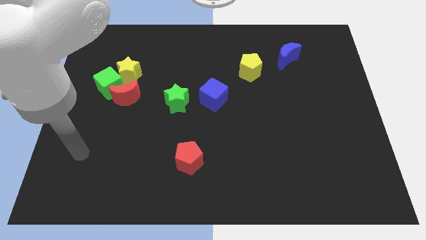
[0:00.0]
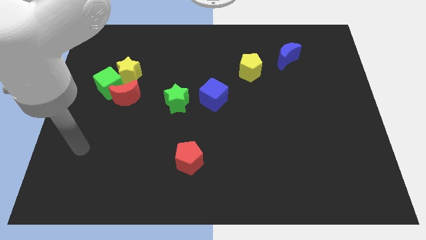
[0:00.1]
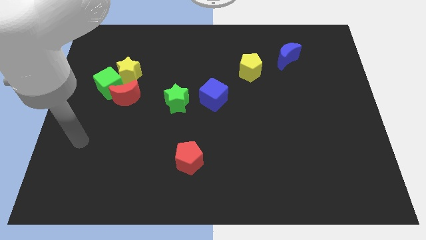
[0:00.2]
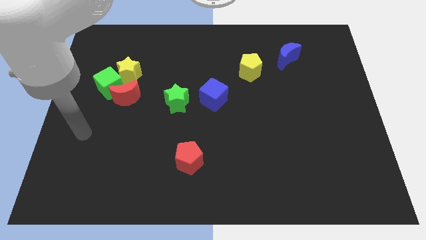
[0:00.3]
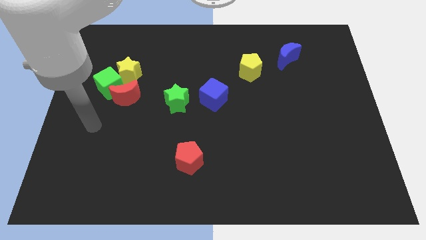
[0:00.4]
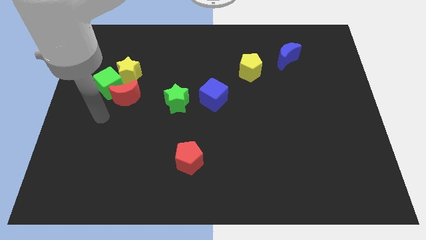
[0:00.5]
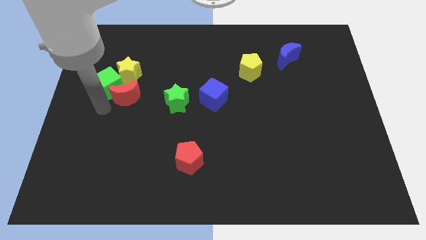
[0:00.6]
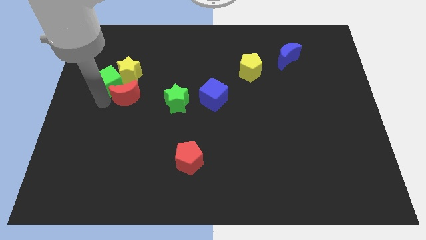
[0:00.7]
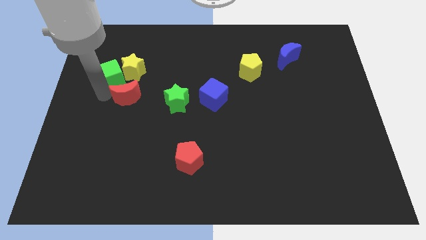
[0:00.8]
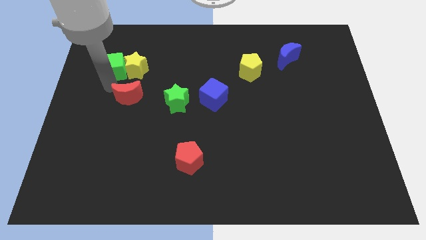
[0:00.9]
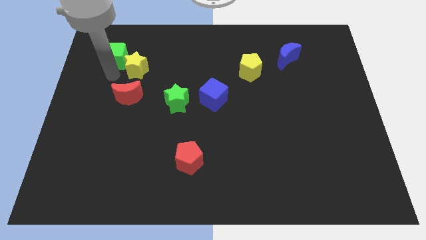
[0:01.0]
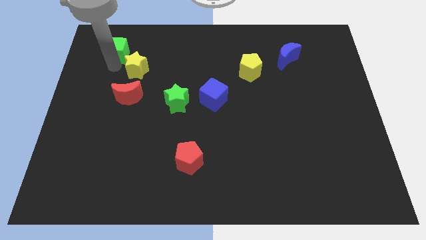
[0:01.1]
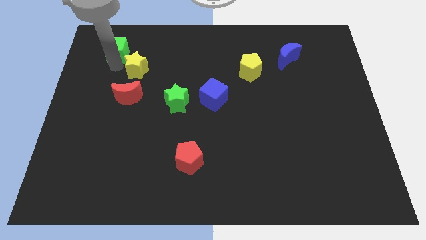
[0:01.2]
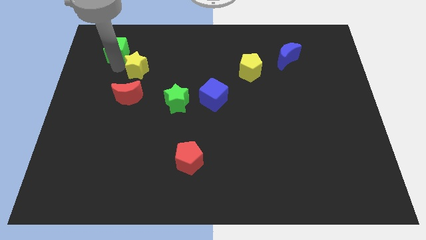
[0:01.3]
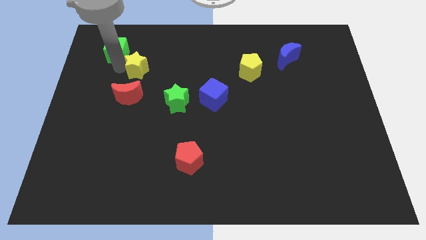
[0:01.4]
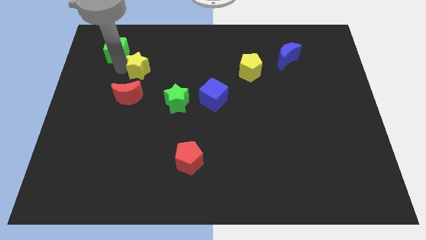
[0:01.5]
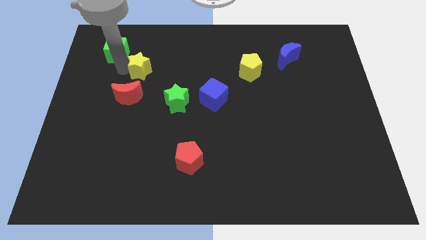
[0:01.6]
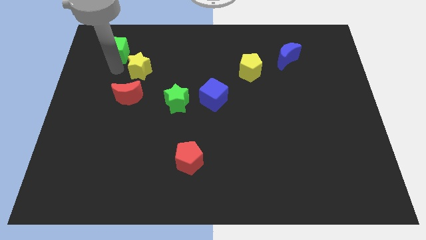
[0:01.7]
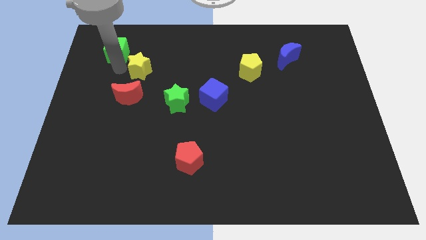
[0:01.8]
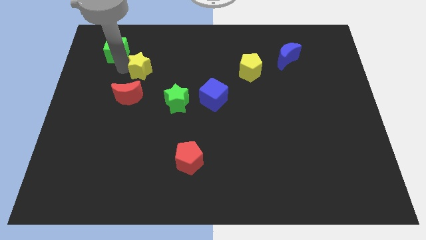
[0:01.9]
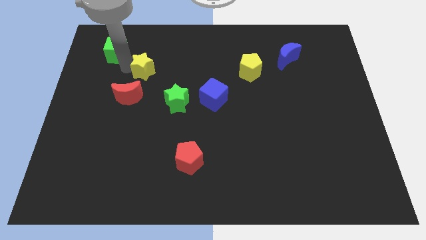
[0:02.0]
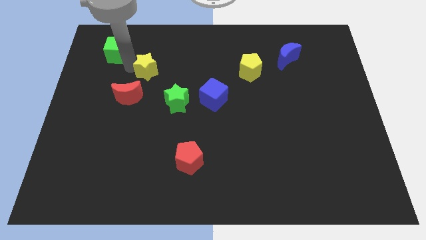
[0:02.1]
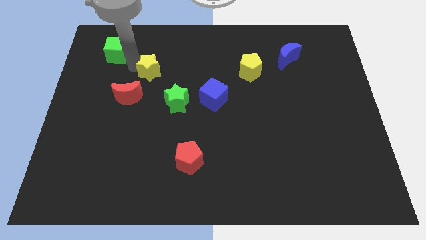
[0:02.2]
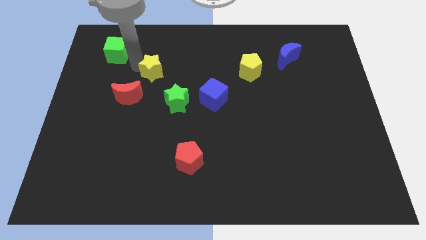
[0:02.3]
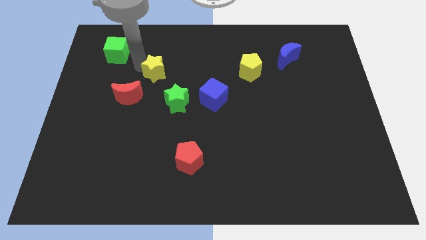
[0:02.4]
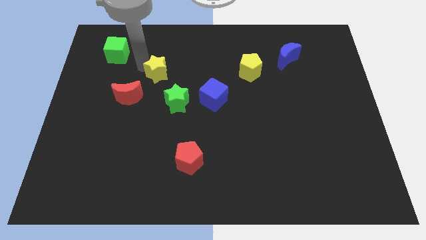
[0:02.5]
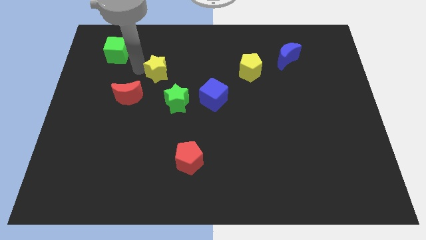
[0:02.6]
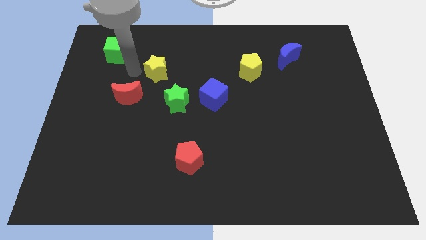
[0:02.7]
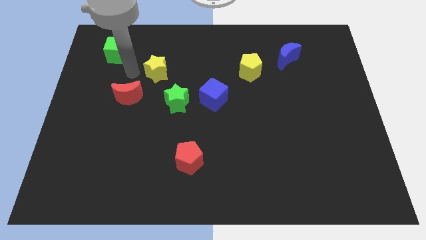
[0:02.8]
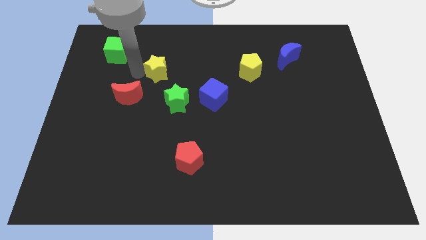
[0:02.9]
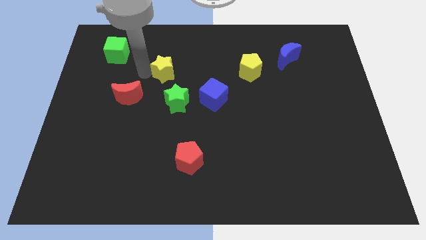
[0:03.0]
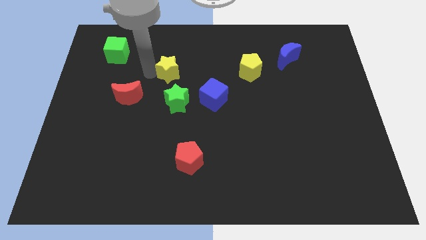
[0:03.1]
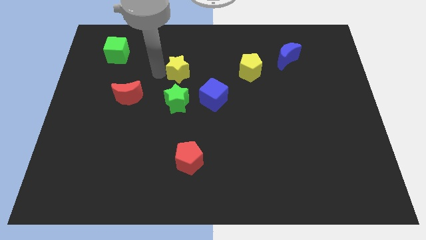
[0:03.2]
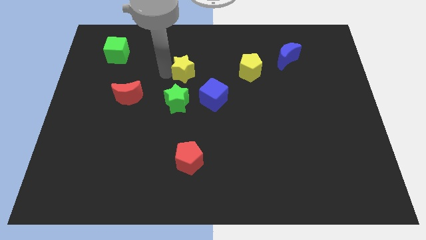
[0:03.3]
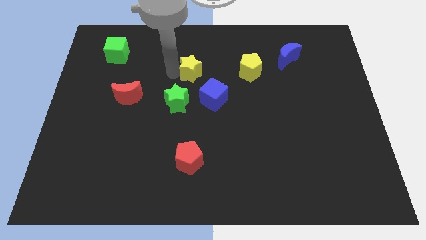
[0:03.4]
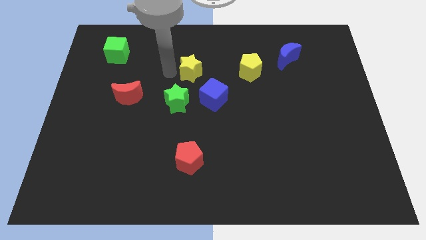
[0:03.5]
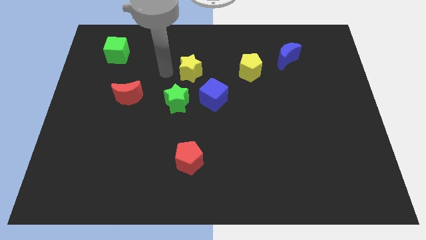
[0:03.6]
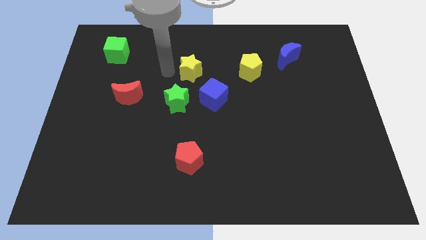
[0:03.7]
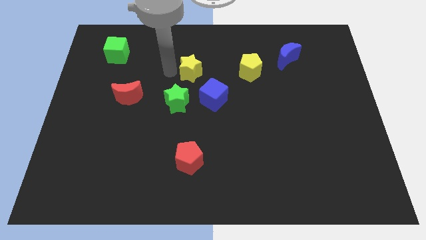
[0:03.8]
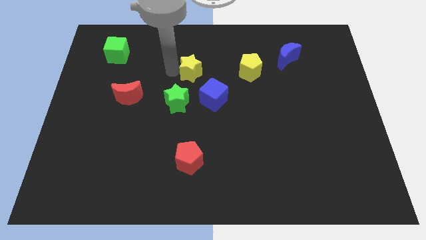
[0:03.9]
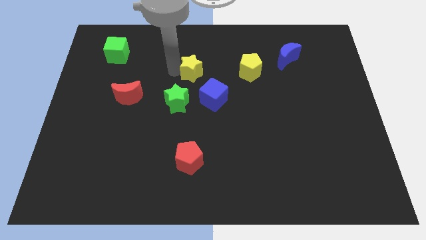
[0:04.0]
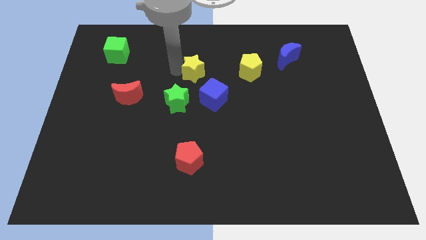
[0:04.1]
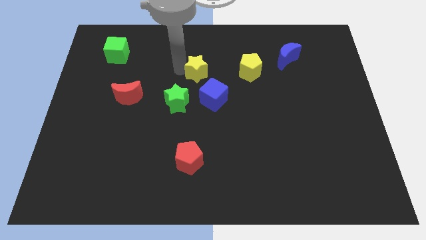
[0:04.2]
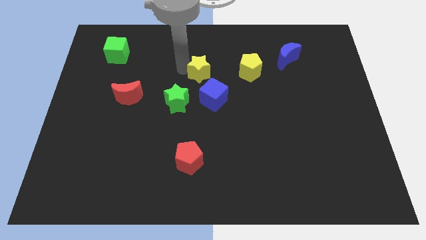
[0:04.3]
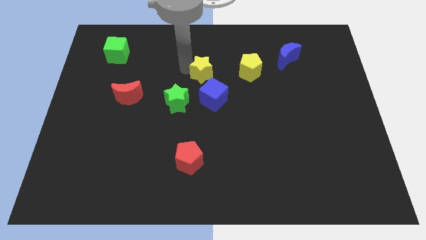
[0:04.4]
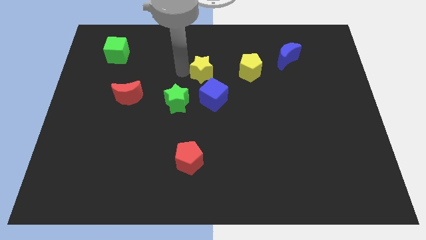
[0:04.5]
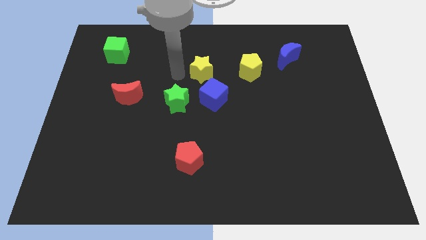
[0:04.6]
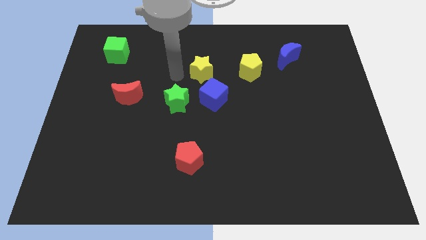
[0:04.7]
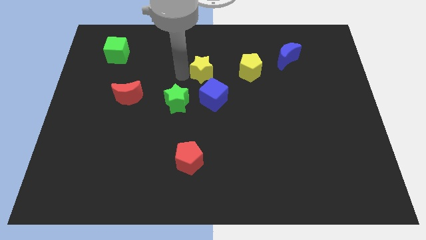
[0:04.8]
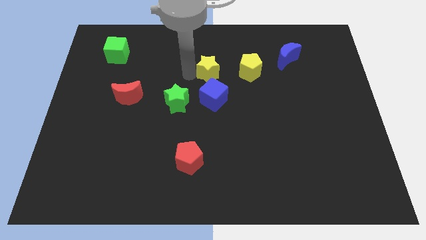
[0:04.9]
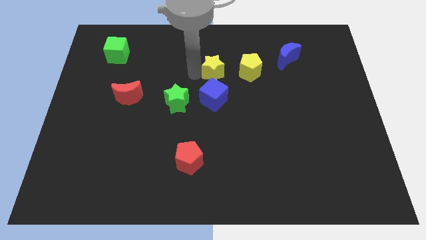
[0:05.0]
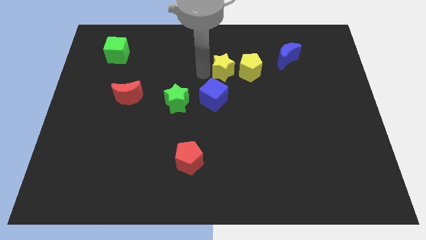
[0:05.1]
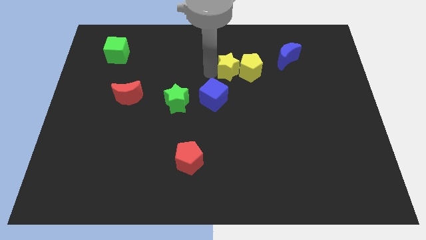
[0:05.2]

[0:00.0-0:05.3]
put the yellow star close to the yellow pentagon

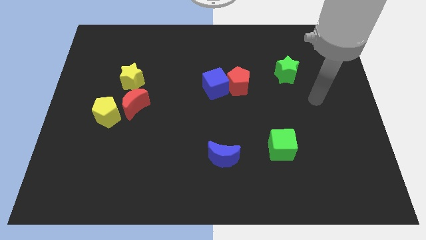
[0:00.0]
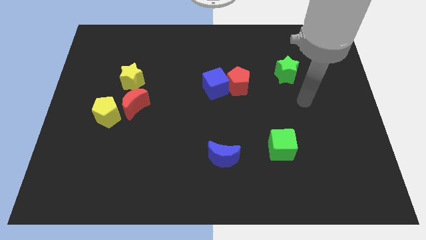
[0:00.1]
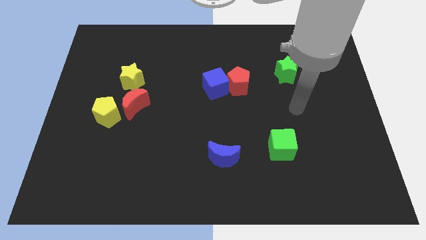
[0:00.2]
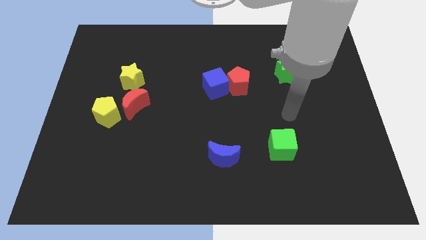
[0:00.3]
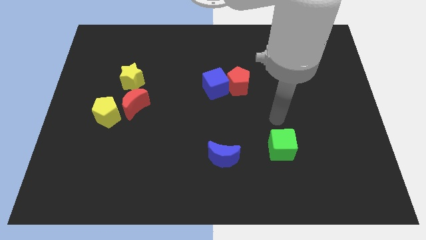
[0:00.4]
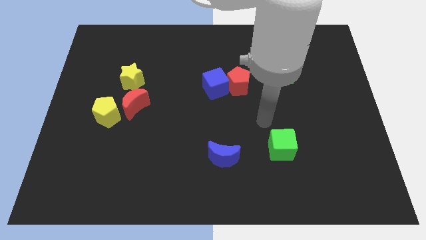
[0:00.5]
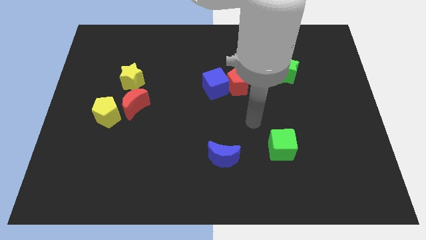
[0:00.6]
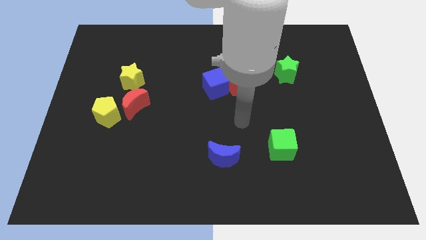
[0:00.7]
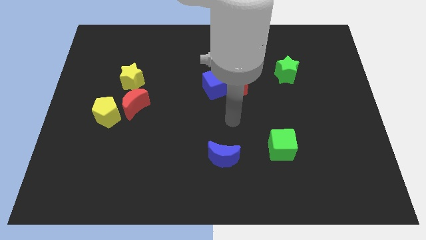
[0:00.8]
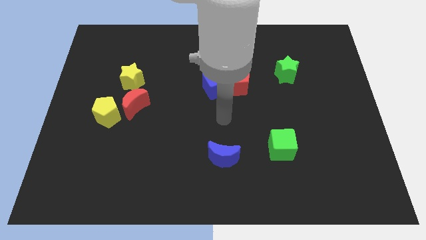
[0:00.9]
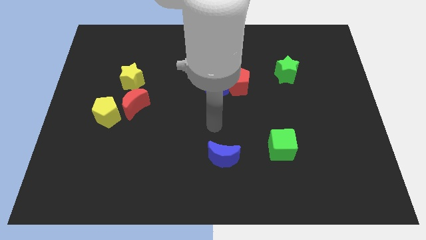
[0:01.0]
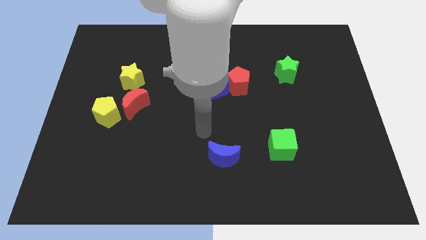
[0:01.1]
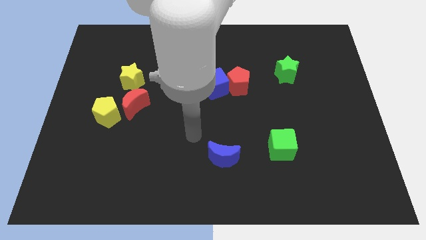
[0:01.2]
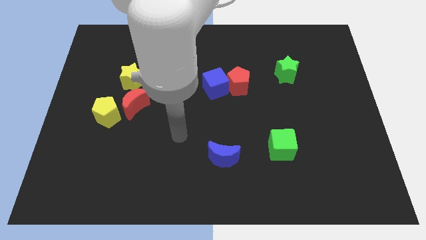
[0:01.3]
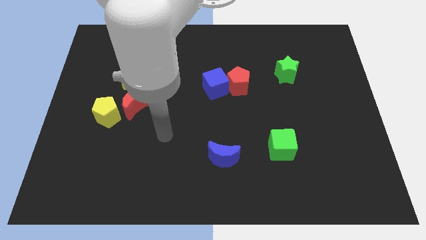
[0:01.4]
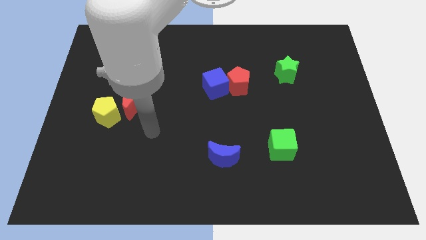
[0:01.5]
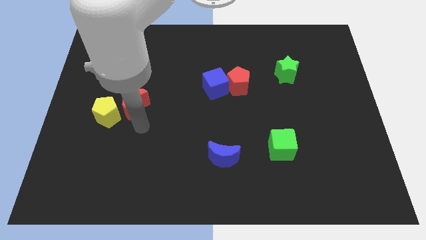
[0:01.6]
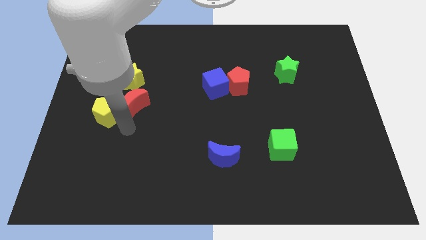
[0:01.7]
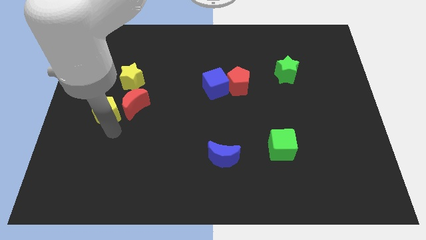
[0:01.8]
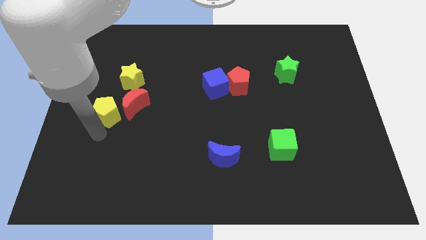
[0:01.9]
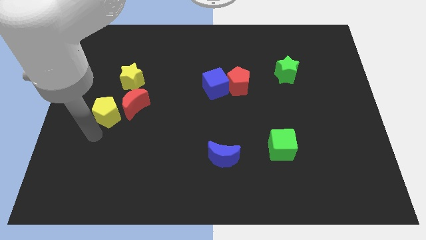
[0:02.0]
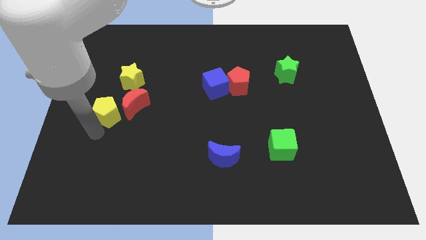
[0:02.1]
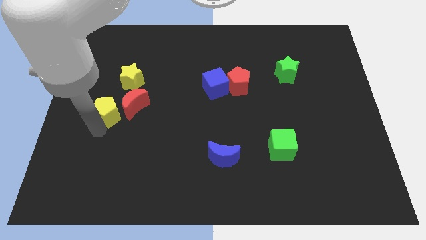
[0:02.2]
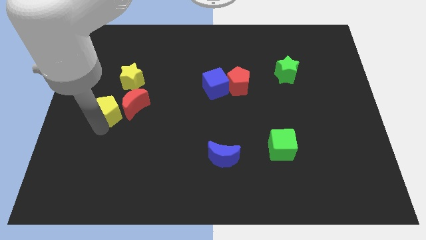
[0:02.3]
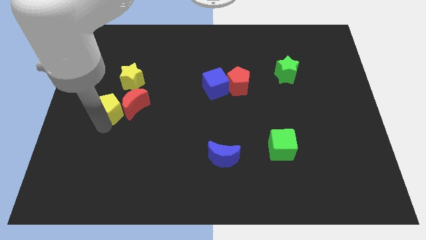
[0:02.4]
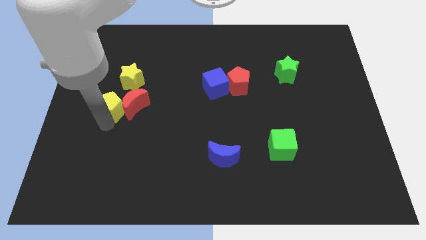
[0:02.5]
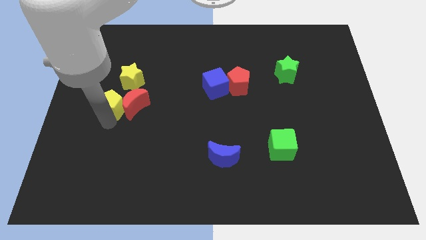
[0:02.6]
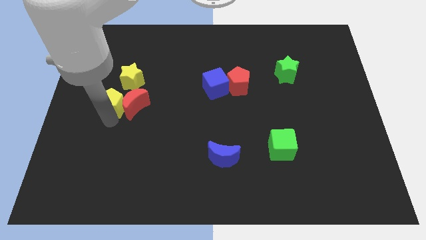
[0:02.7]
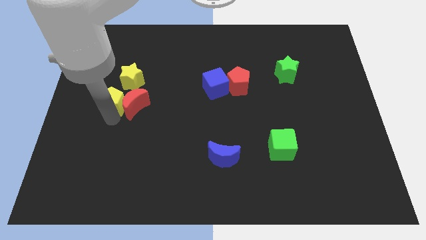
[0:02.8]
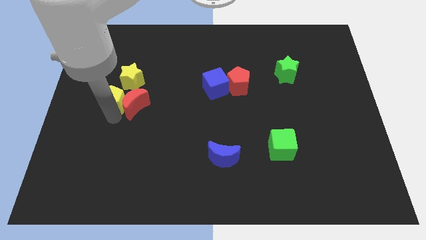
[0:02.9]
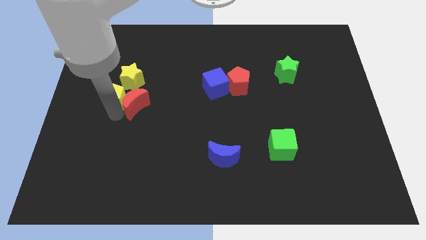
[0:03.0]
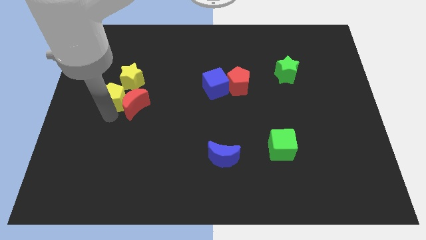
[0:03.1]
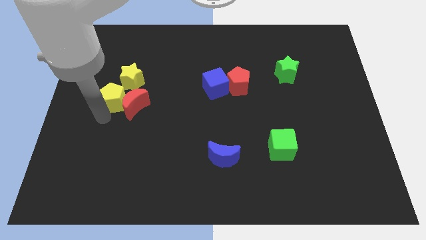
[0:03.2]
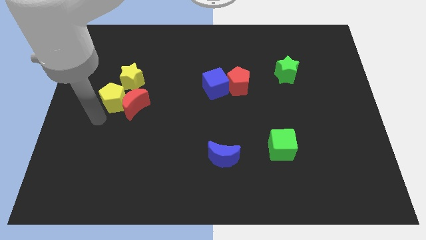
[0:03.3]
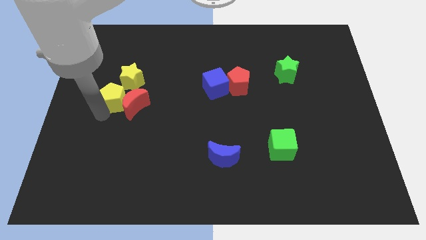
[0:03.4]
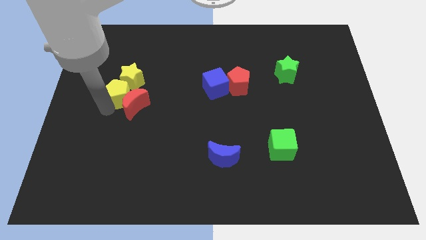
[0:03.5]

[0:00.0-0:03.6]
slide the yellow pentagon close to the yellow star
